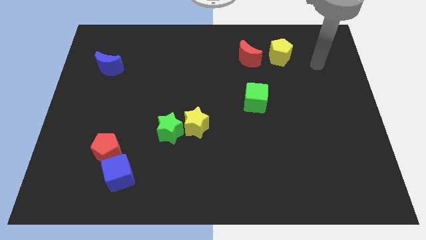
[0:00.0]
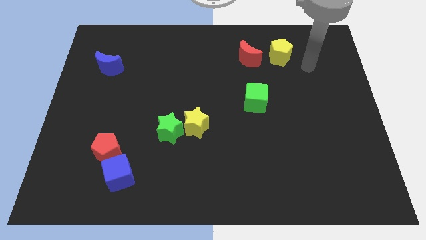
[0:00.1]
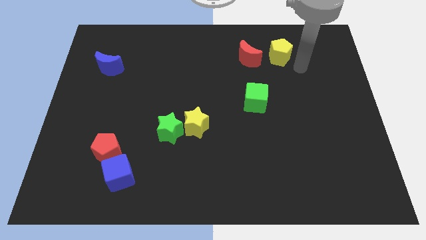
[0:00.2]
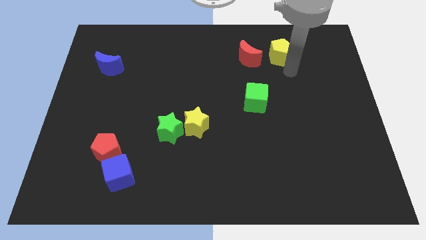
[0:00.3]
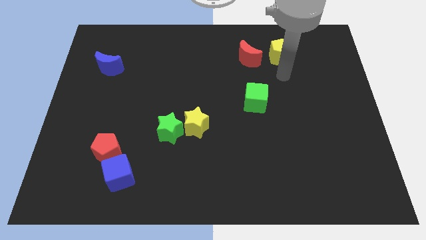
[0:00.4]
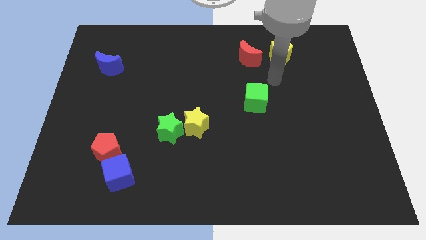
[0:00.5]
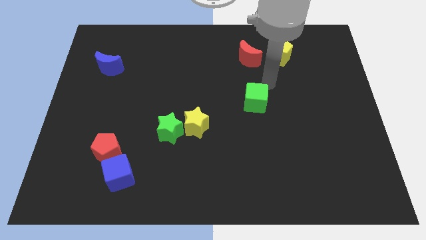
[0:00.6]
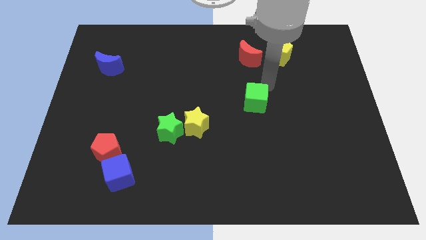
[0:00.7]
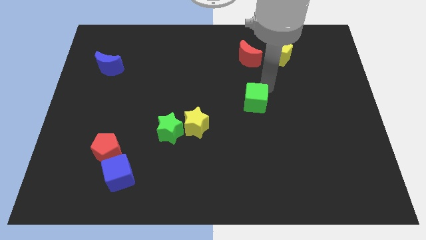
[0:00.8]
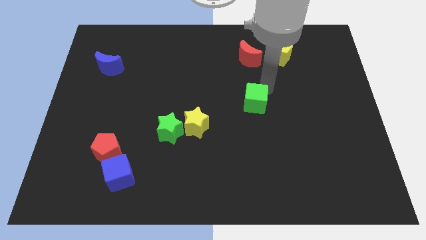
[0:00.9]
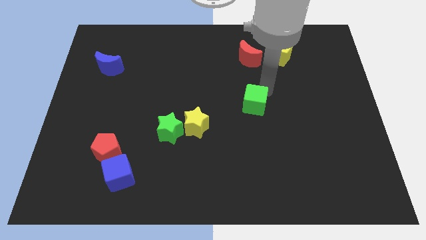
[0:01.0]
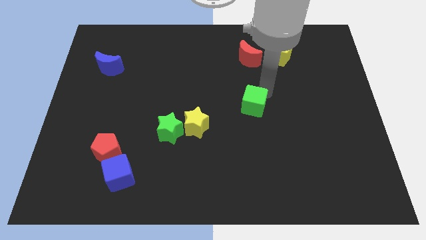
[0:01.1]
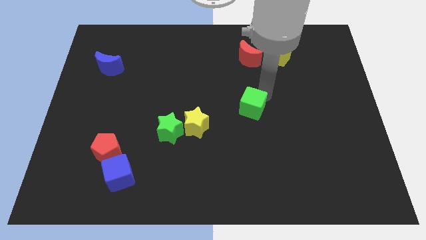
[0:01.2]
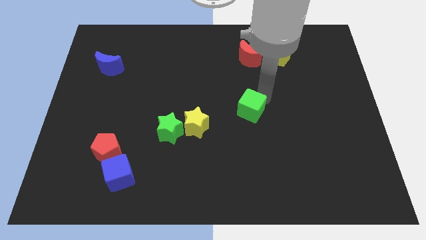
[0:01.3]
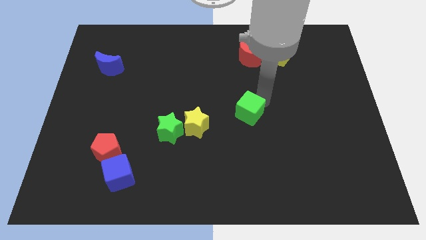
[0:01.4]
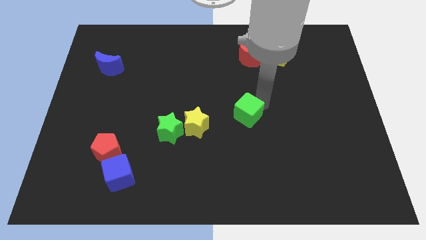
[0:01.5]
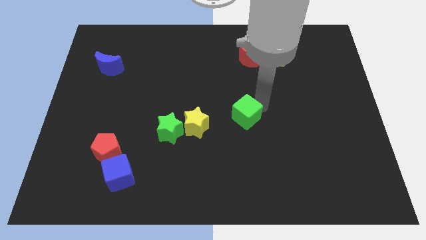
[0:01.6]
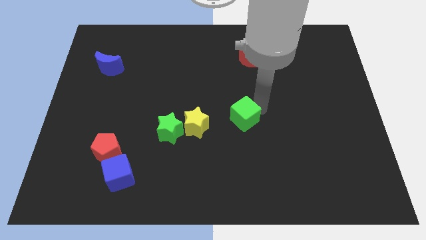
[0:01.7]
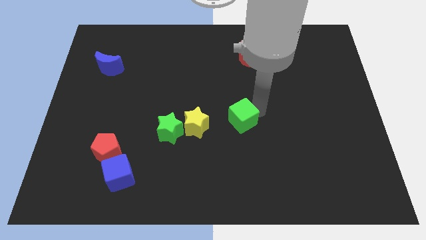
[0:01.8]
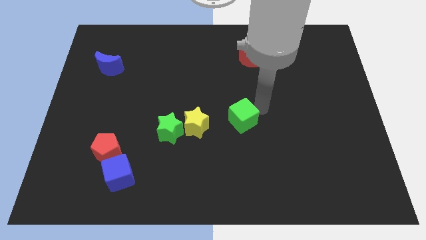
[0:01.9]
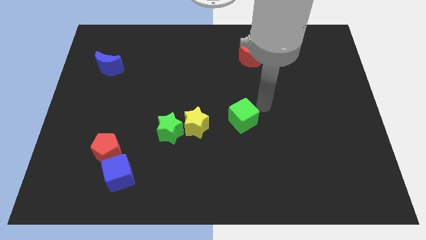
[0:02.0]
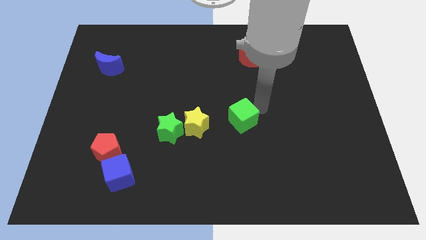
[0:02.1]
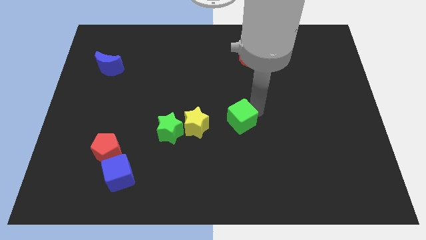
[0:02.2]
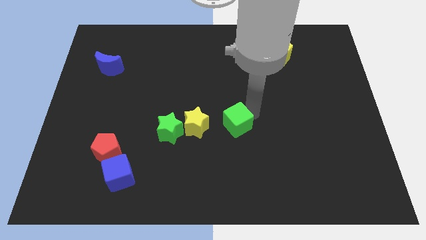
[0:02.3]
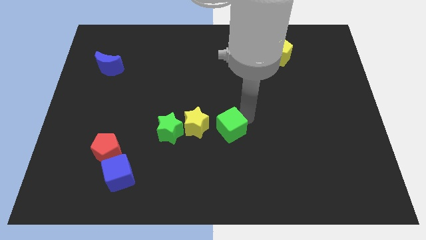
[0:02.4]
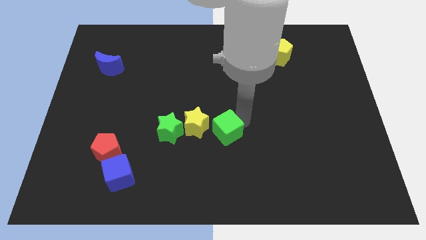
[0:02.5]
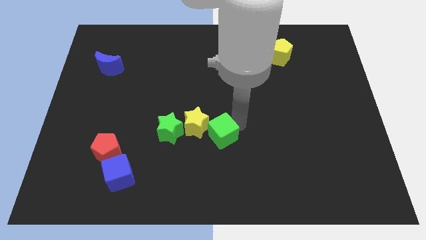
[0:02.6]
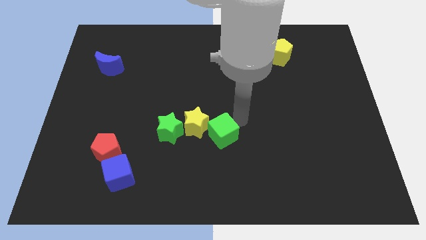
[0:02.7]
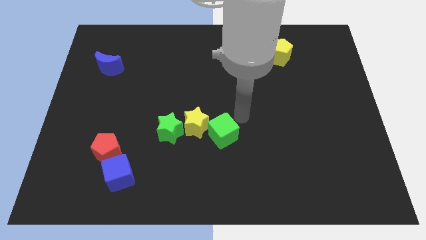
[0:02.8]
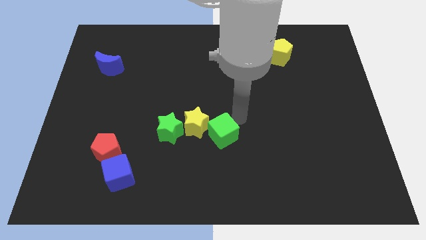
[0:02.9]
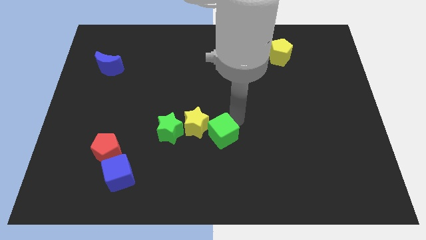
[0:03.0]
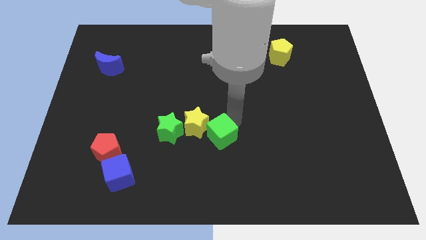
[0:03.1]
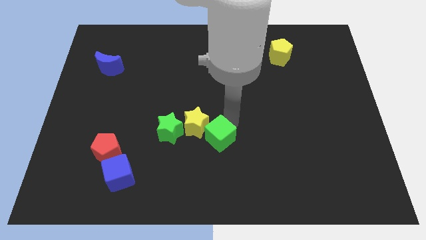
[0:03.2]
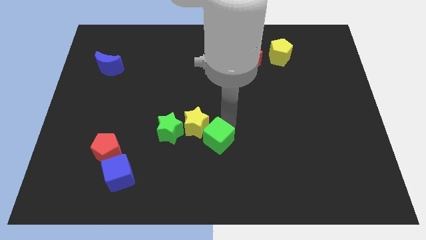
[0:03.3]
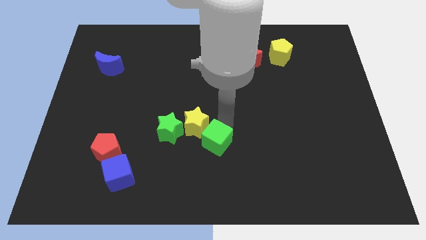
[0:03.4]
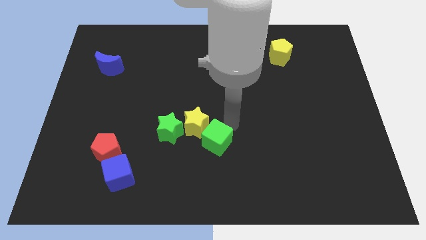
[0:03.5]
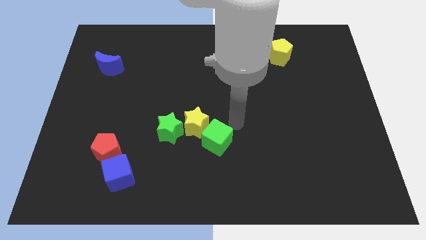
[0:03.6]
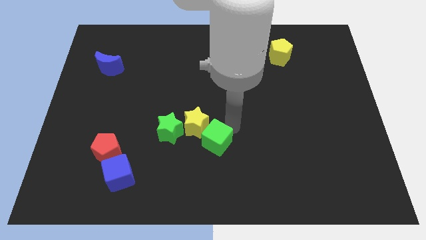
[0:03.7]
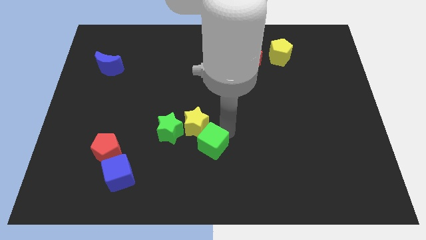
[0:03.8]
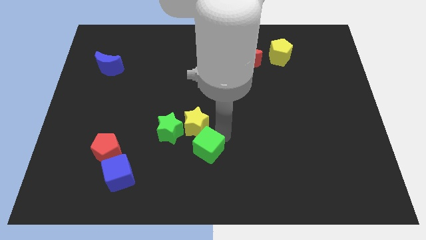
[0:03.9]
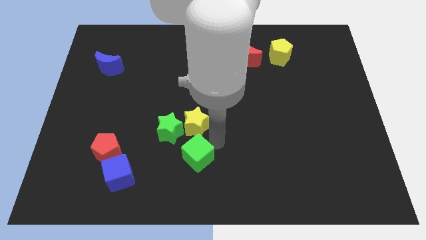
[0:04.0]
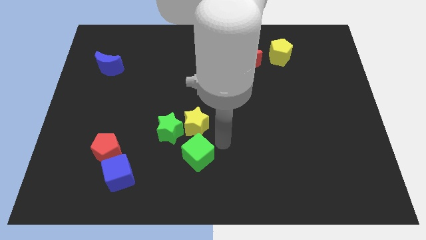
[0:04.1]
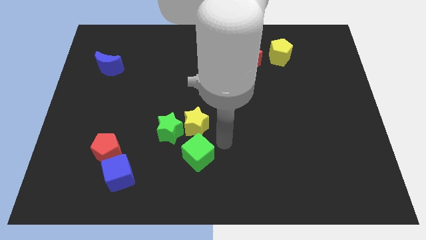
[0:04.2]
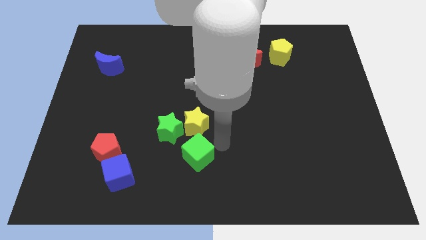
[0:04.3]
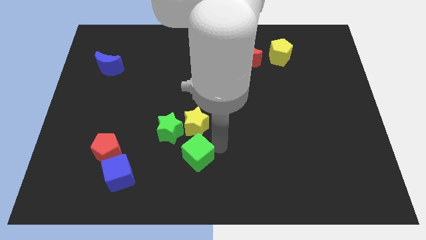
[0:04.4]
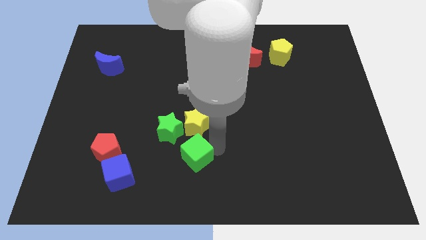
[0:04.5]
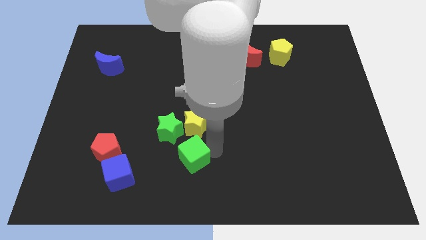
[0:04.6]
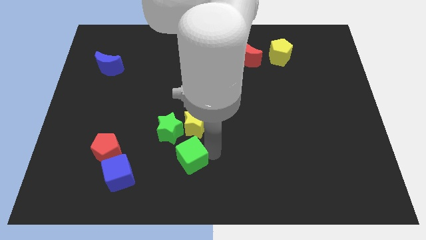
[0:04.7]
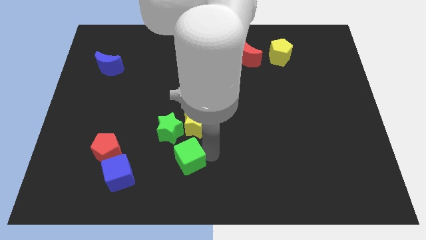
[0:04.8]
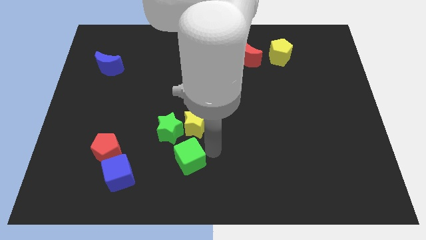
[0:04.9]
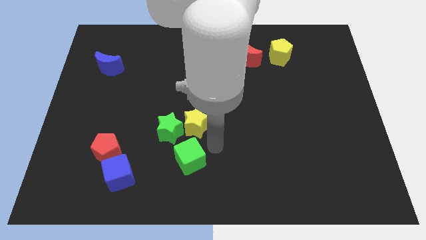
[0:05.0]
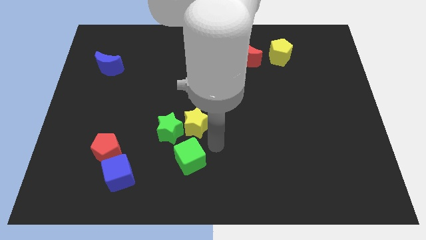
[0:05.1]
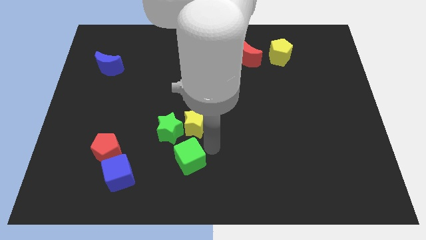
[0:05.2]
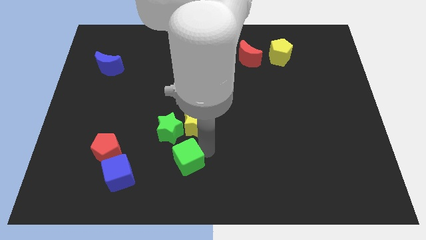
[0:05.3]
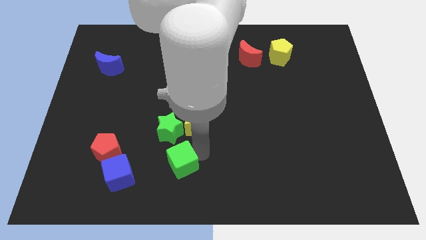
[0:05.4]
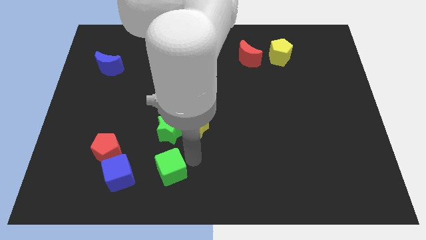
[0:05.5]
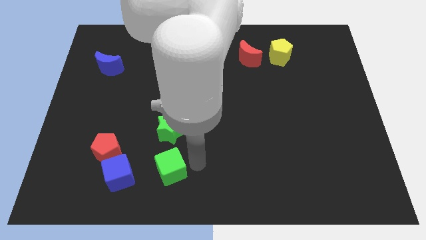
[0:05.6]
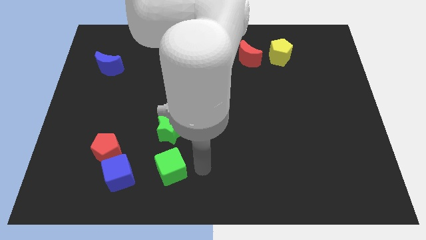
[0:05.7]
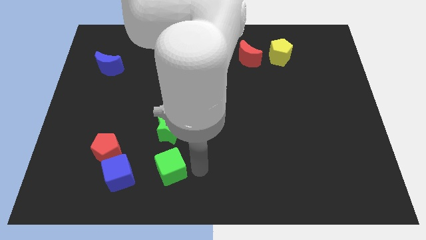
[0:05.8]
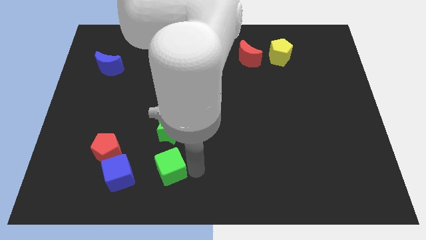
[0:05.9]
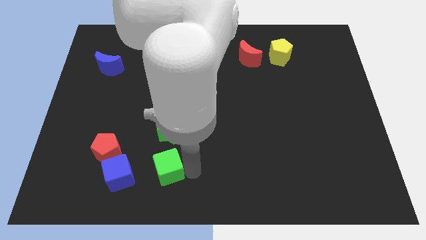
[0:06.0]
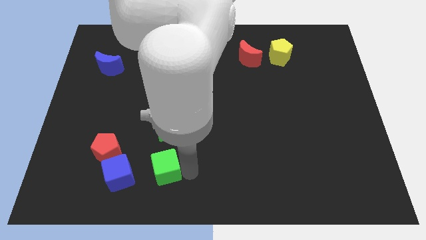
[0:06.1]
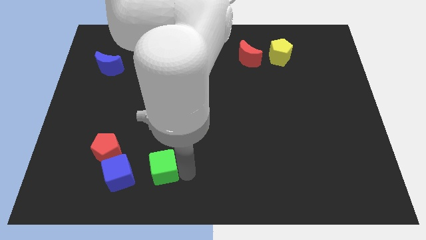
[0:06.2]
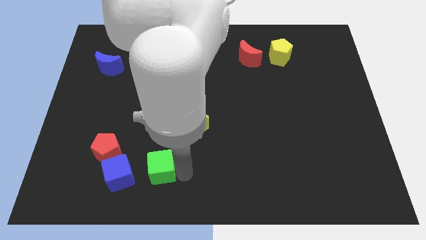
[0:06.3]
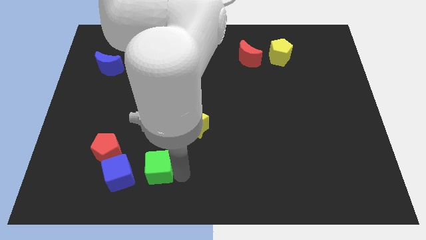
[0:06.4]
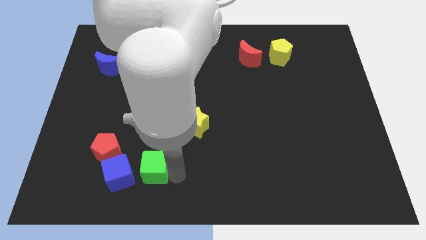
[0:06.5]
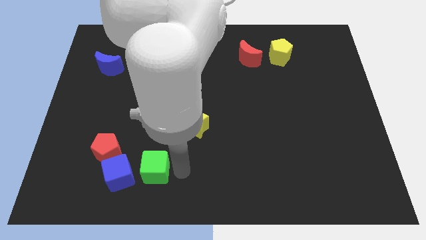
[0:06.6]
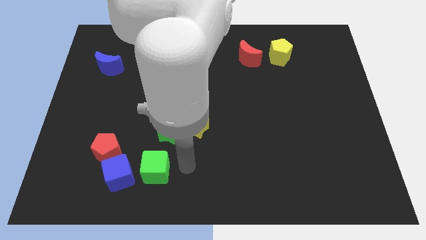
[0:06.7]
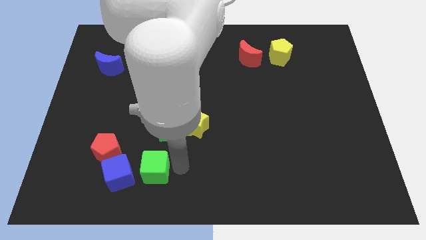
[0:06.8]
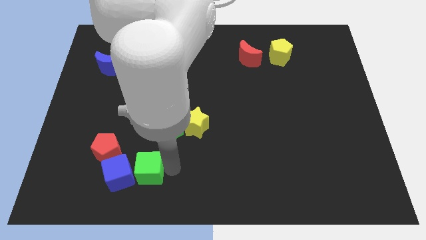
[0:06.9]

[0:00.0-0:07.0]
slide the green cube next to the blue cube

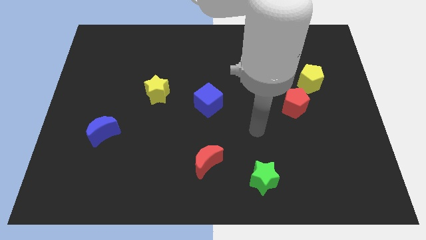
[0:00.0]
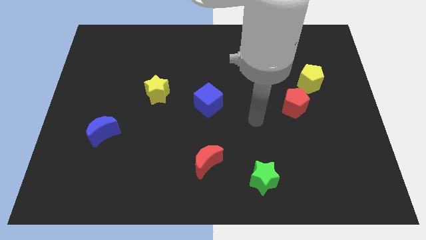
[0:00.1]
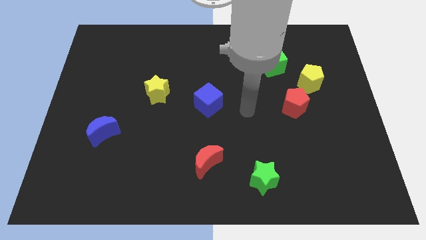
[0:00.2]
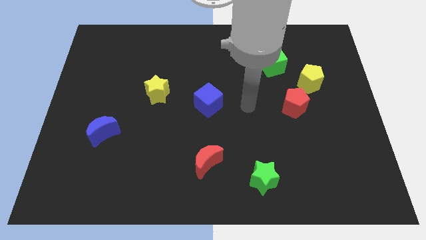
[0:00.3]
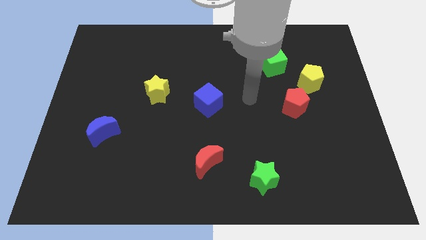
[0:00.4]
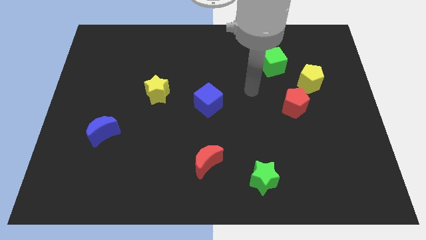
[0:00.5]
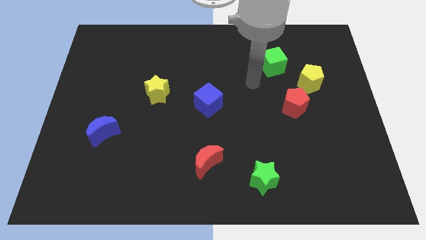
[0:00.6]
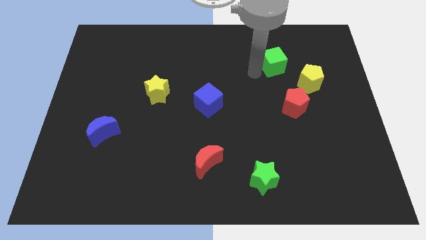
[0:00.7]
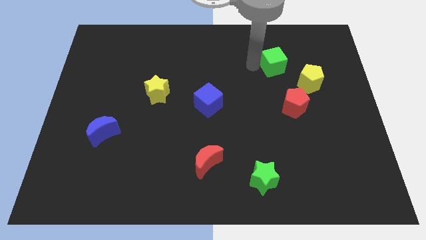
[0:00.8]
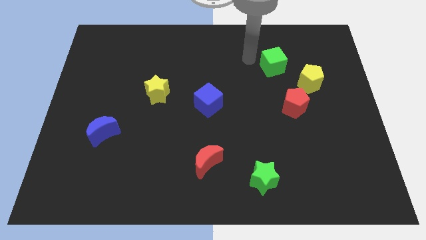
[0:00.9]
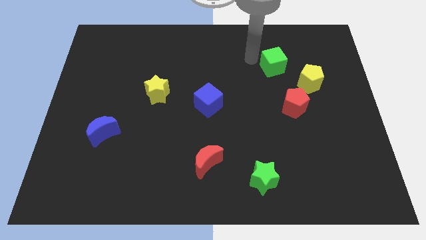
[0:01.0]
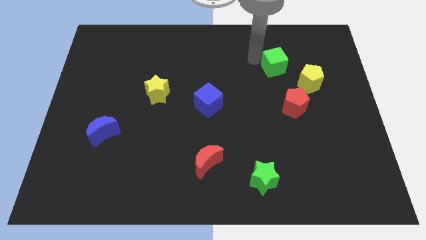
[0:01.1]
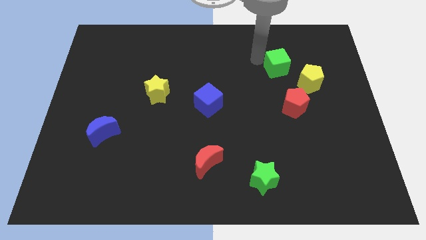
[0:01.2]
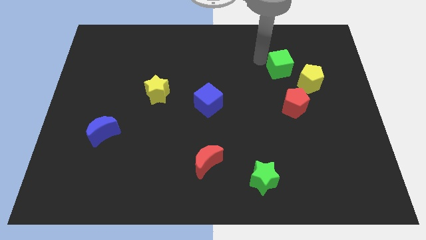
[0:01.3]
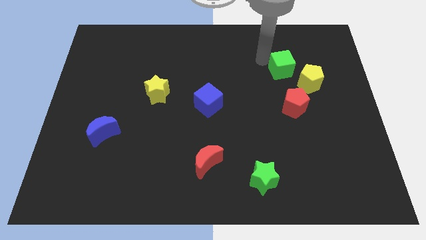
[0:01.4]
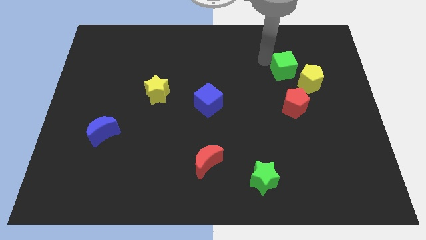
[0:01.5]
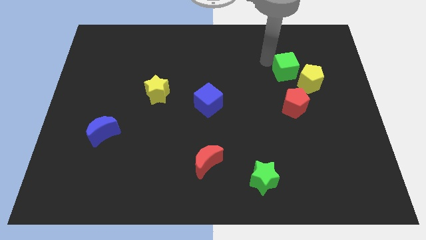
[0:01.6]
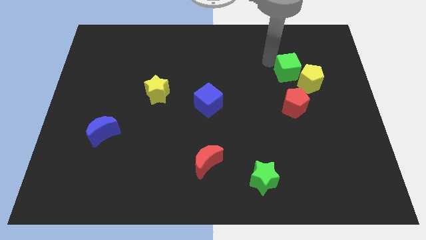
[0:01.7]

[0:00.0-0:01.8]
move the green cube towards the yellow pentagon
